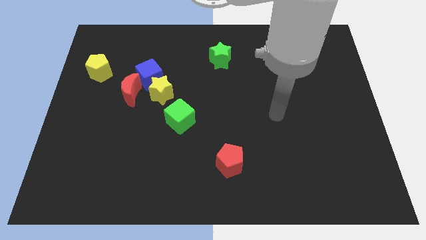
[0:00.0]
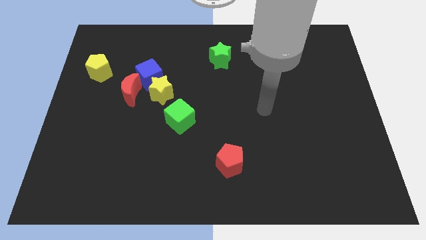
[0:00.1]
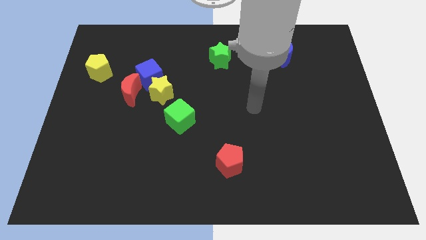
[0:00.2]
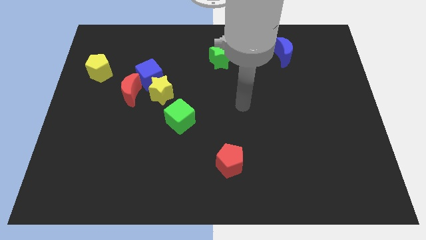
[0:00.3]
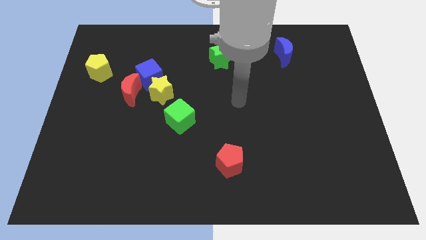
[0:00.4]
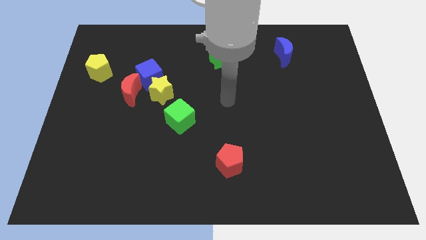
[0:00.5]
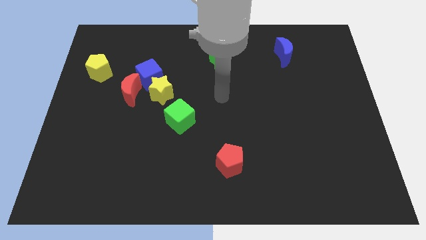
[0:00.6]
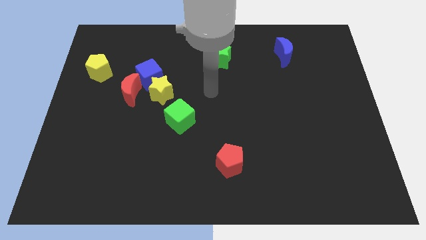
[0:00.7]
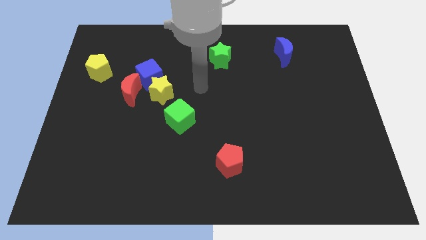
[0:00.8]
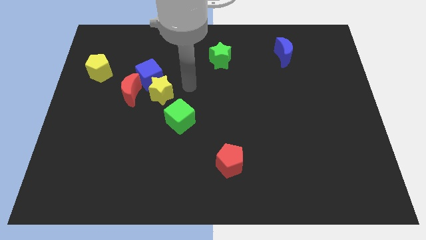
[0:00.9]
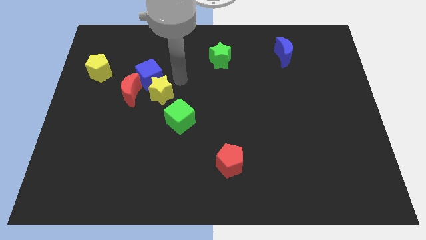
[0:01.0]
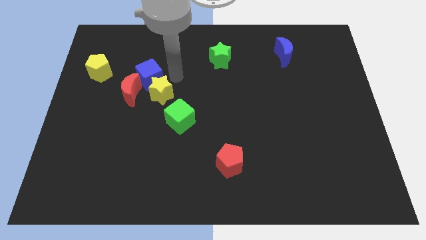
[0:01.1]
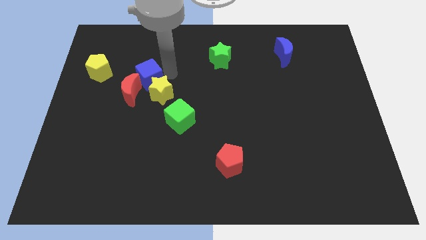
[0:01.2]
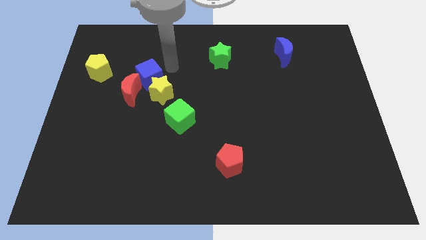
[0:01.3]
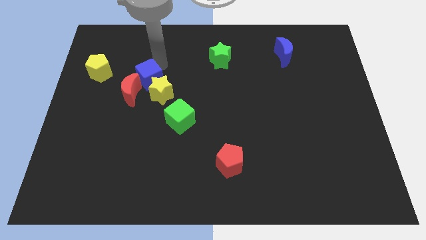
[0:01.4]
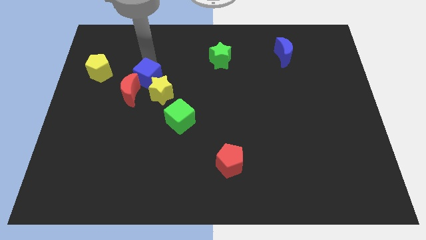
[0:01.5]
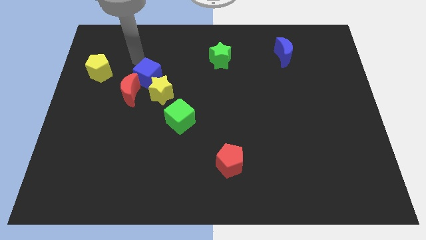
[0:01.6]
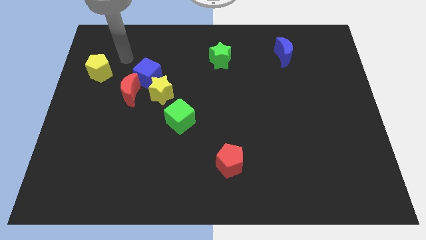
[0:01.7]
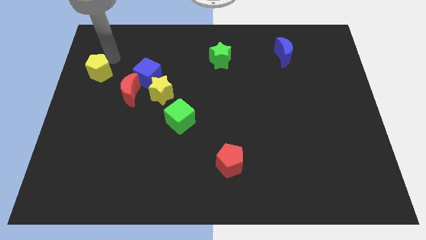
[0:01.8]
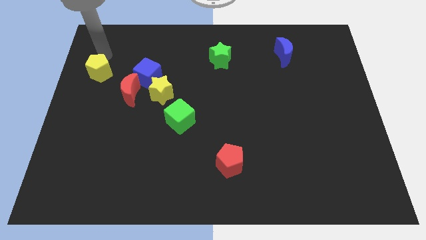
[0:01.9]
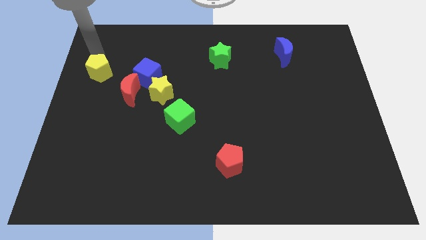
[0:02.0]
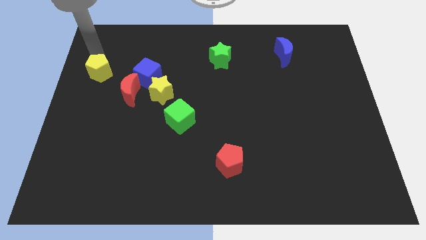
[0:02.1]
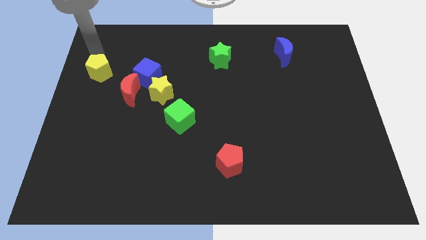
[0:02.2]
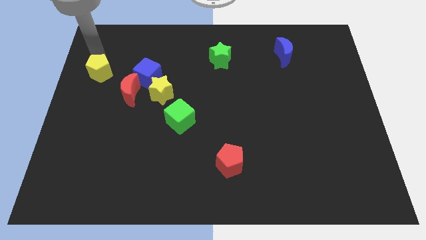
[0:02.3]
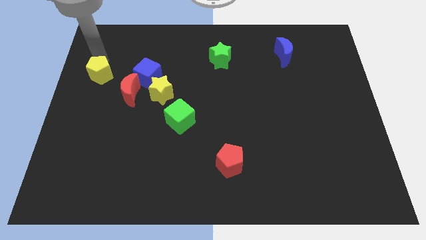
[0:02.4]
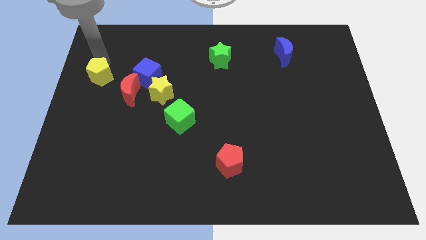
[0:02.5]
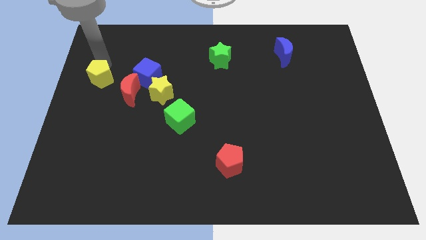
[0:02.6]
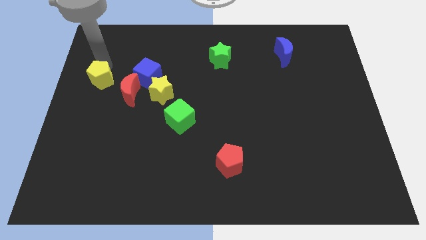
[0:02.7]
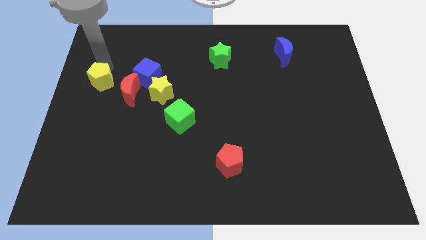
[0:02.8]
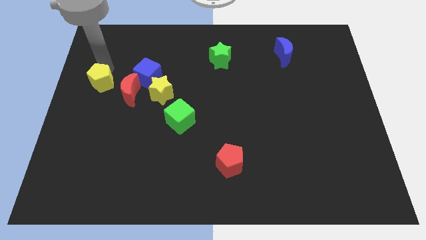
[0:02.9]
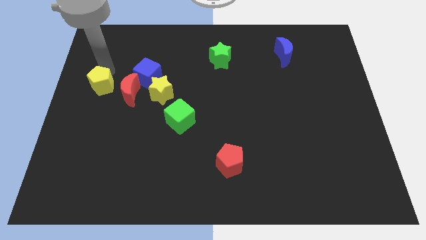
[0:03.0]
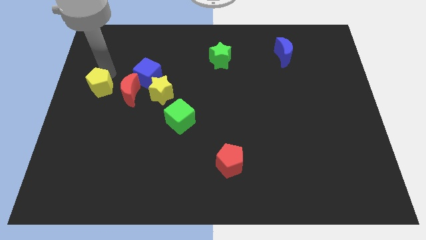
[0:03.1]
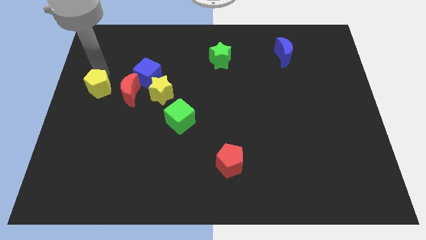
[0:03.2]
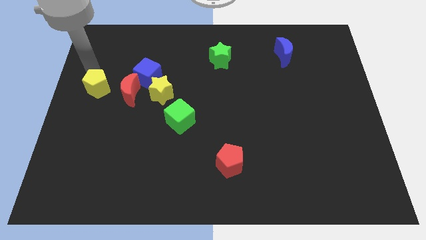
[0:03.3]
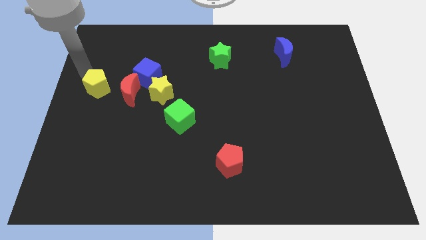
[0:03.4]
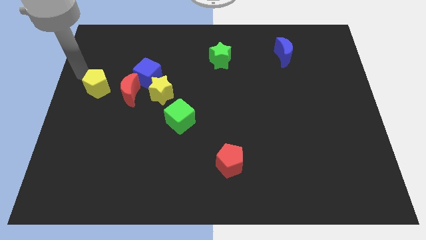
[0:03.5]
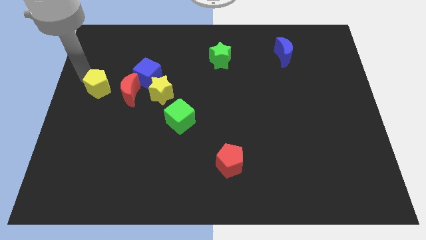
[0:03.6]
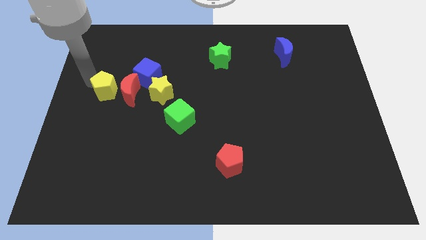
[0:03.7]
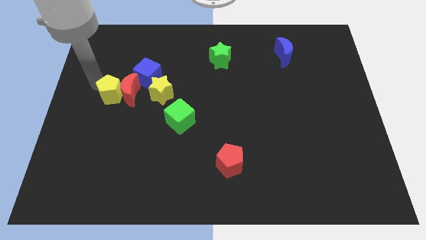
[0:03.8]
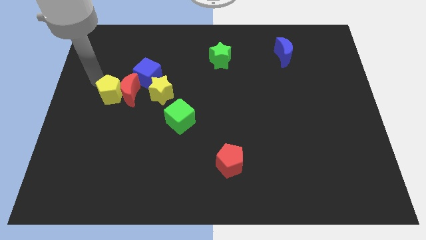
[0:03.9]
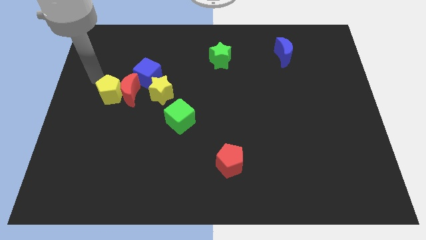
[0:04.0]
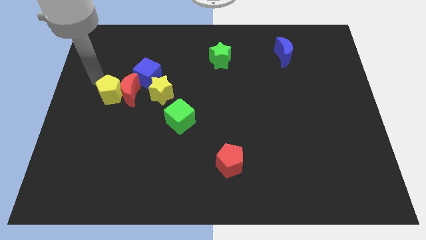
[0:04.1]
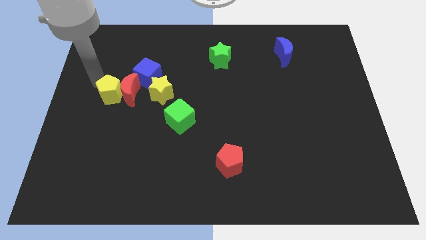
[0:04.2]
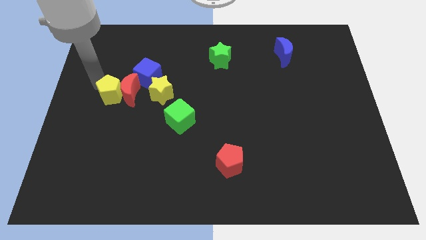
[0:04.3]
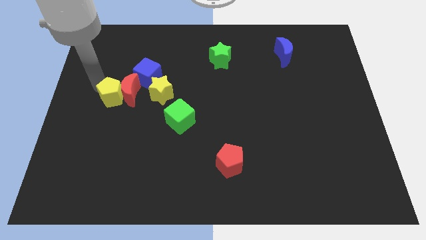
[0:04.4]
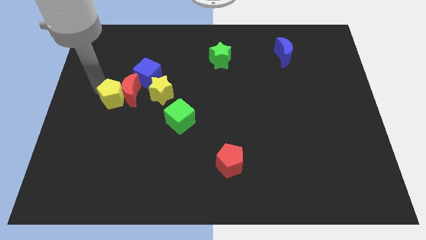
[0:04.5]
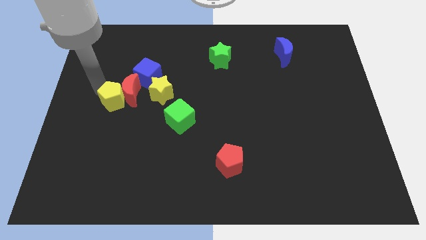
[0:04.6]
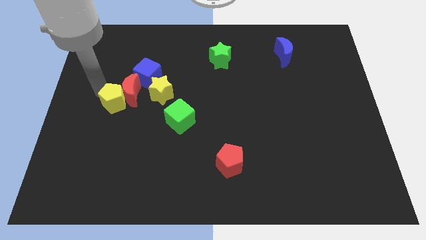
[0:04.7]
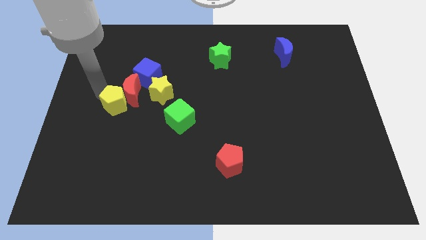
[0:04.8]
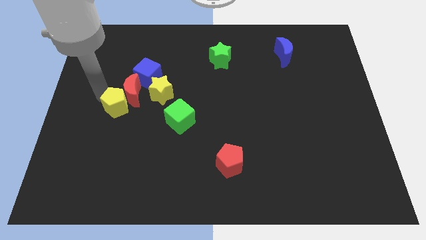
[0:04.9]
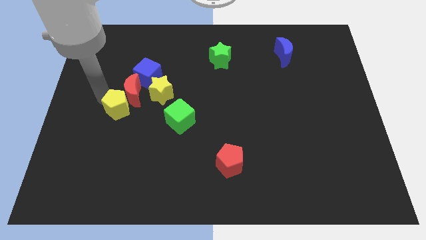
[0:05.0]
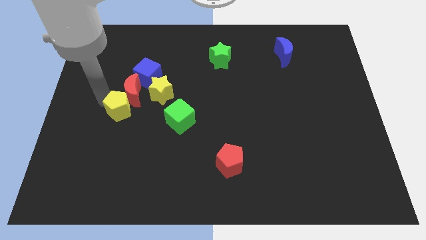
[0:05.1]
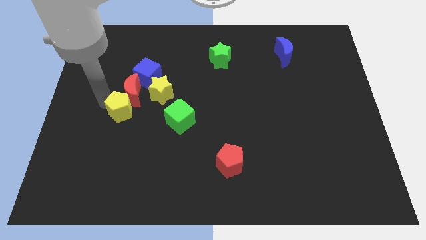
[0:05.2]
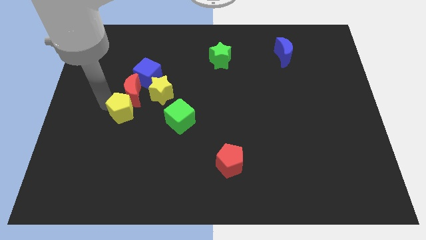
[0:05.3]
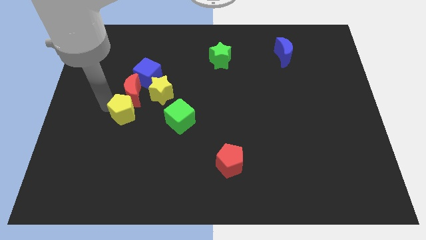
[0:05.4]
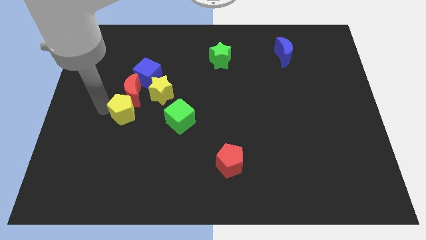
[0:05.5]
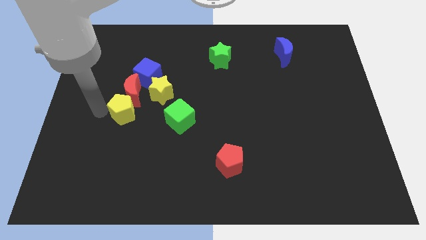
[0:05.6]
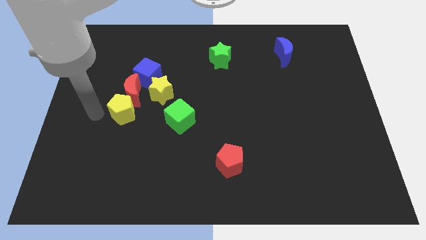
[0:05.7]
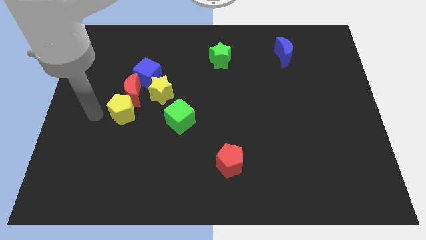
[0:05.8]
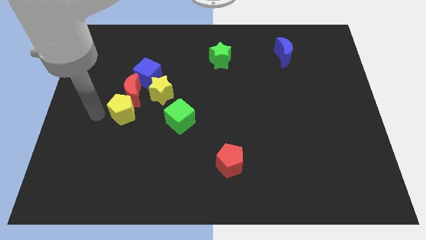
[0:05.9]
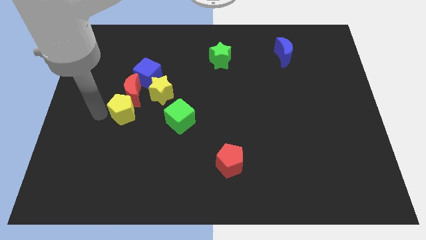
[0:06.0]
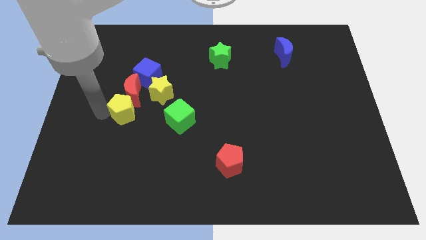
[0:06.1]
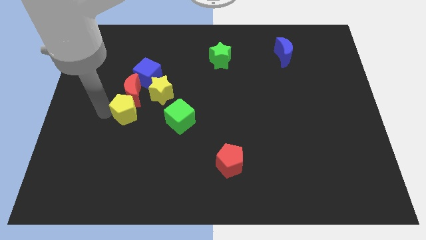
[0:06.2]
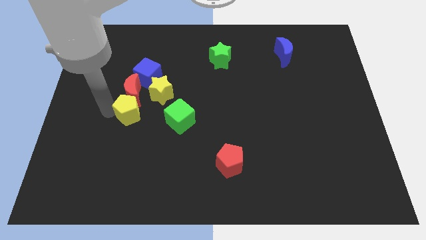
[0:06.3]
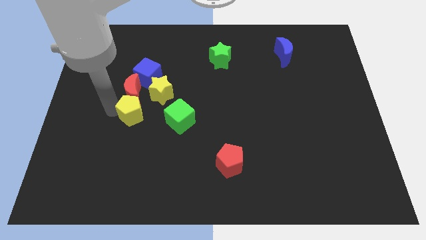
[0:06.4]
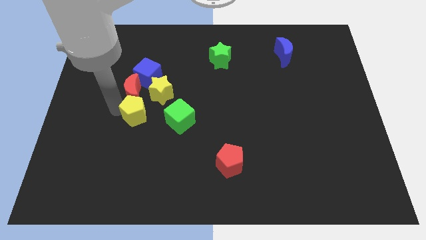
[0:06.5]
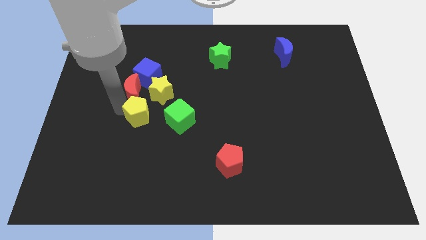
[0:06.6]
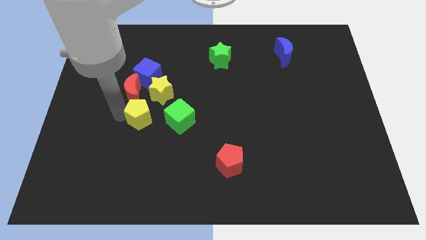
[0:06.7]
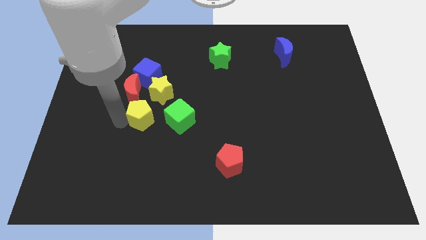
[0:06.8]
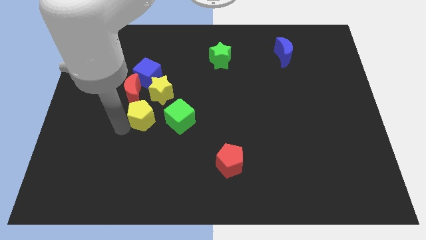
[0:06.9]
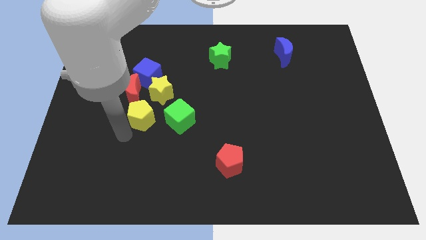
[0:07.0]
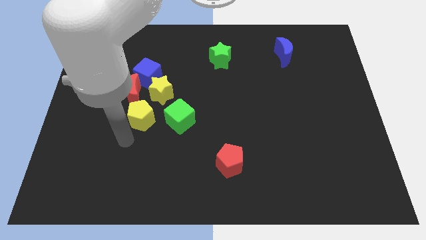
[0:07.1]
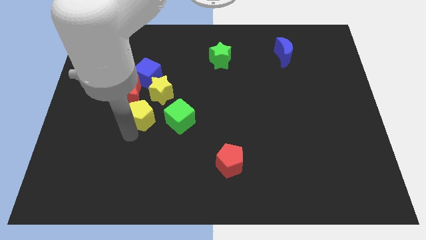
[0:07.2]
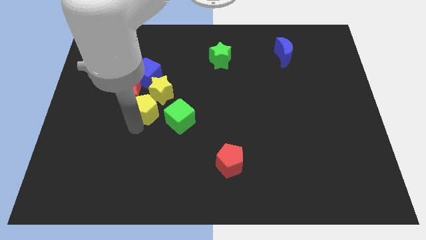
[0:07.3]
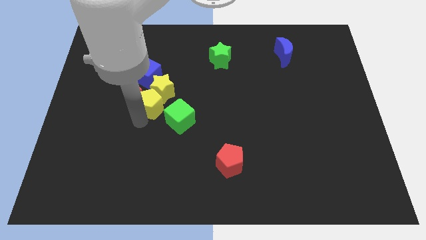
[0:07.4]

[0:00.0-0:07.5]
move the yellow pentagon close to the yellow star
